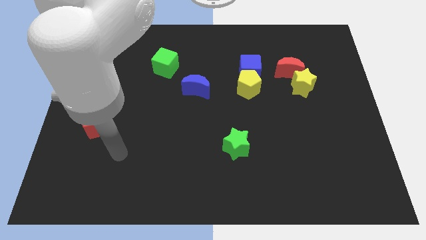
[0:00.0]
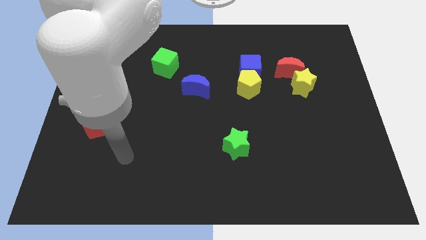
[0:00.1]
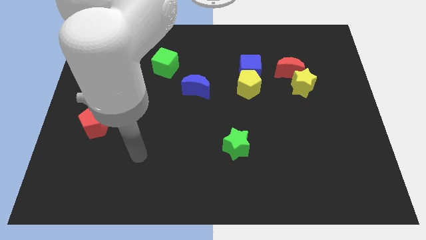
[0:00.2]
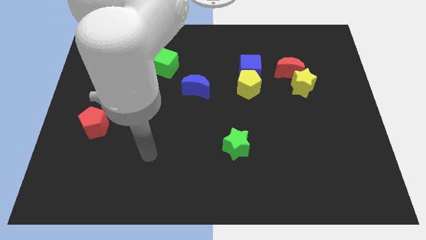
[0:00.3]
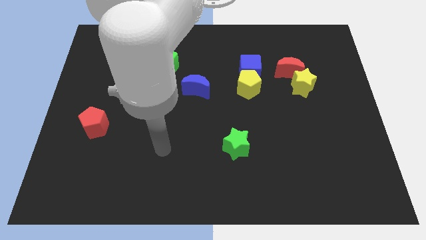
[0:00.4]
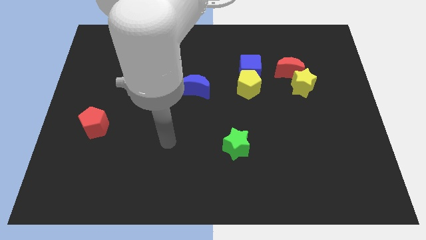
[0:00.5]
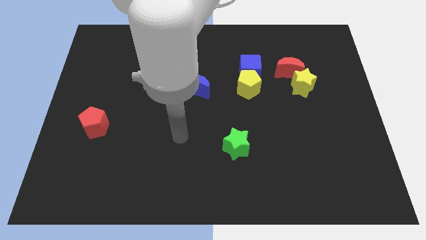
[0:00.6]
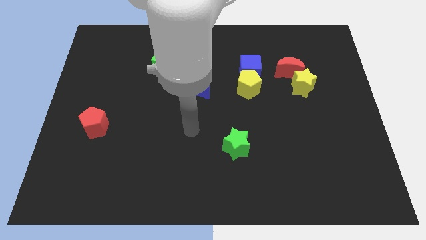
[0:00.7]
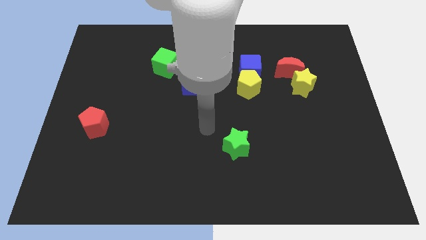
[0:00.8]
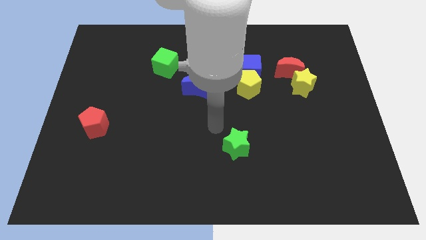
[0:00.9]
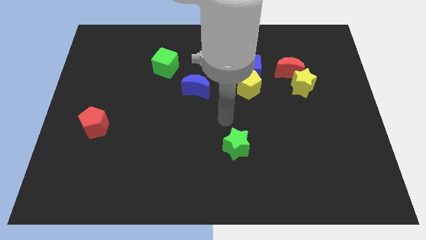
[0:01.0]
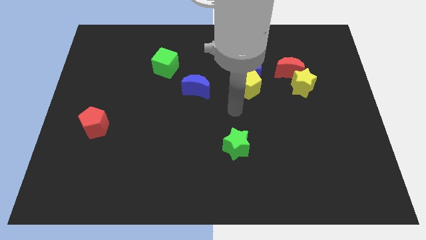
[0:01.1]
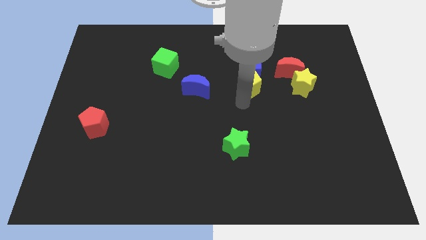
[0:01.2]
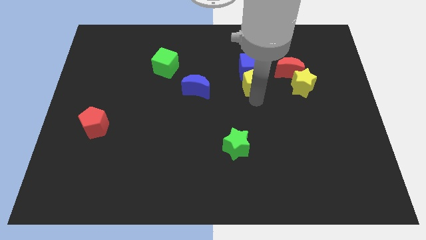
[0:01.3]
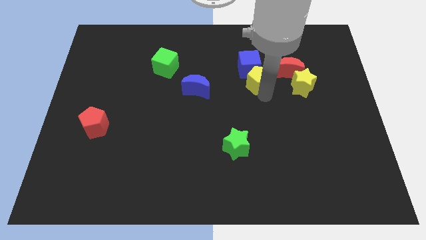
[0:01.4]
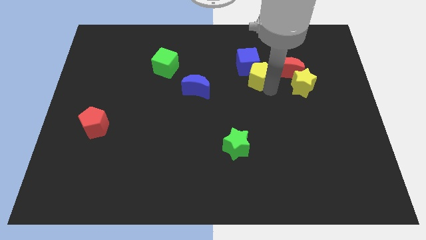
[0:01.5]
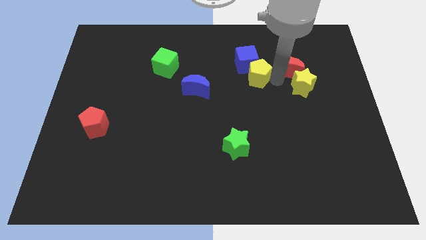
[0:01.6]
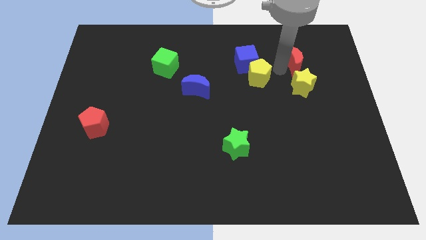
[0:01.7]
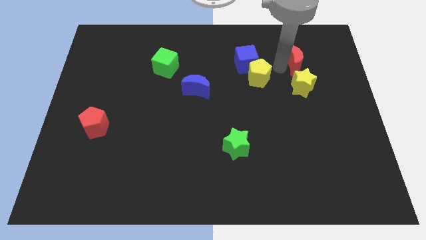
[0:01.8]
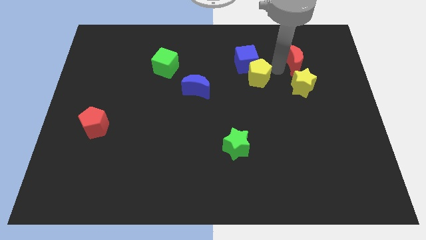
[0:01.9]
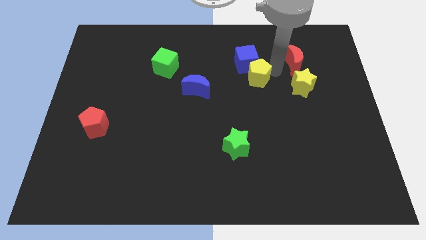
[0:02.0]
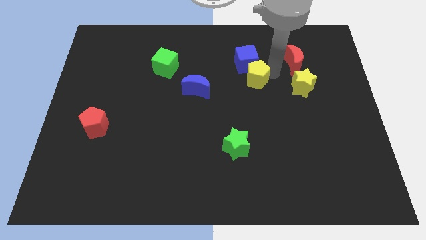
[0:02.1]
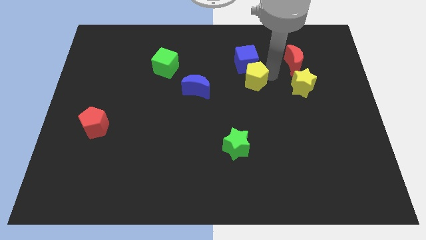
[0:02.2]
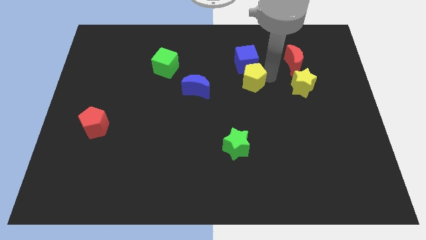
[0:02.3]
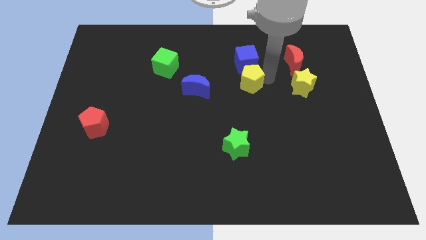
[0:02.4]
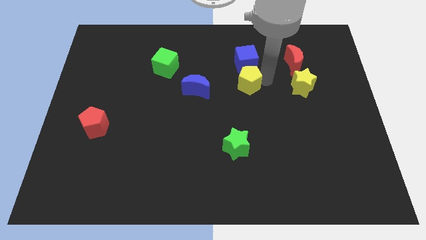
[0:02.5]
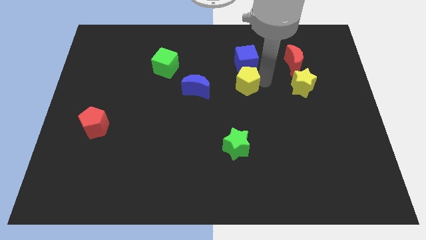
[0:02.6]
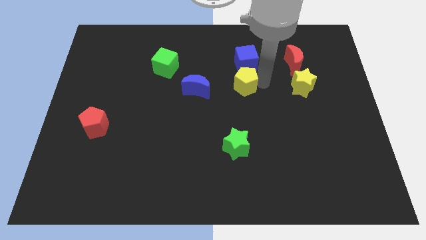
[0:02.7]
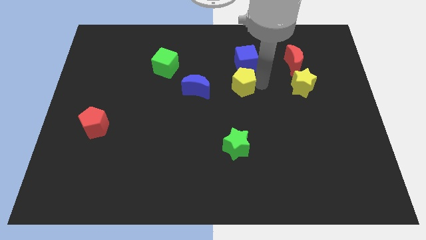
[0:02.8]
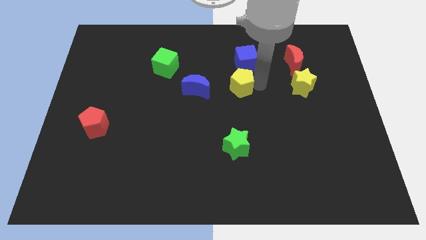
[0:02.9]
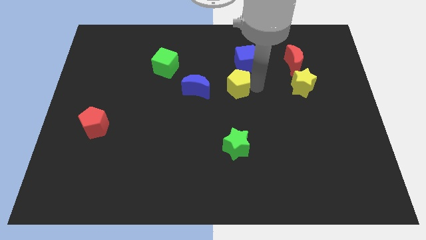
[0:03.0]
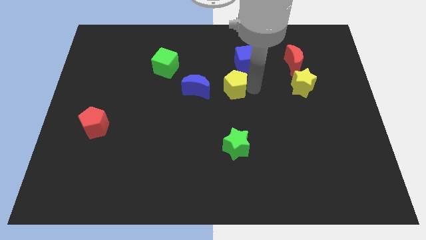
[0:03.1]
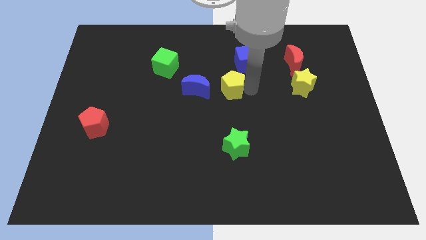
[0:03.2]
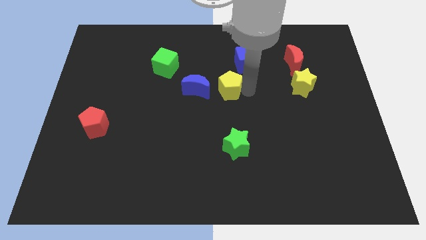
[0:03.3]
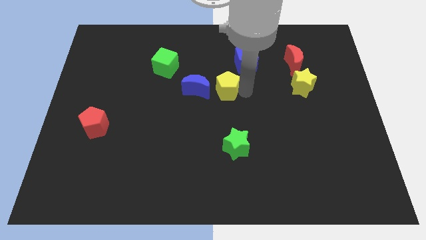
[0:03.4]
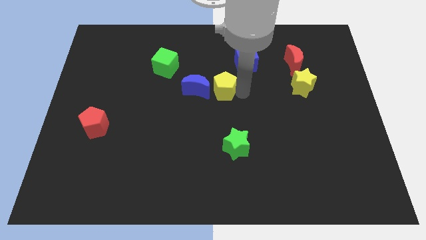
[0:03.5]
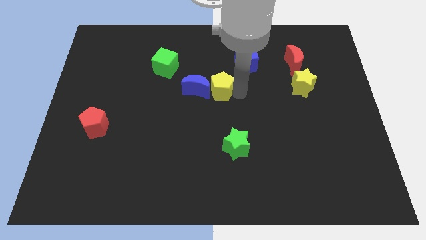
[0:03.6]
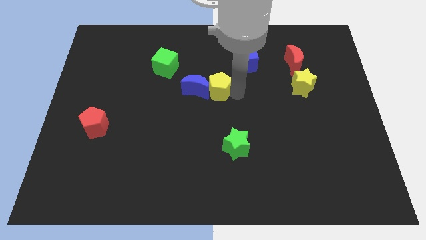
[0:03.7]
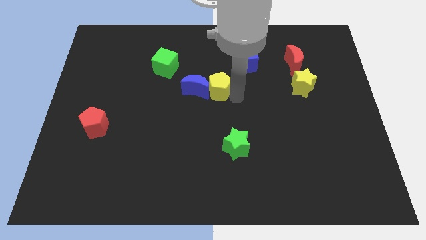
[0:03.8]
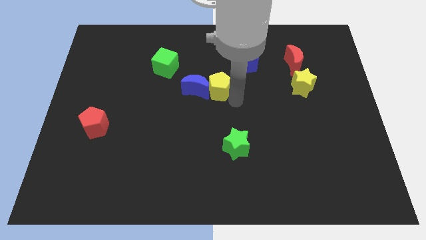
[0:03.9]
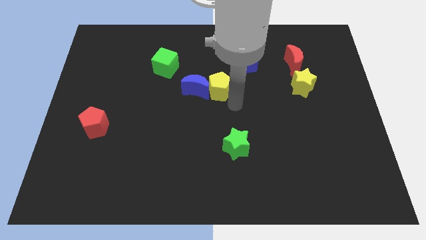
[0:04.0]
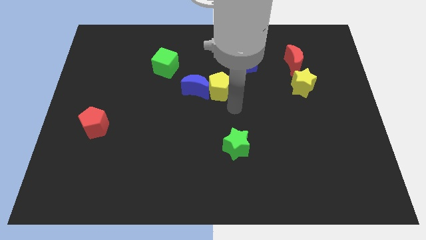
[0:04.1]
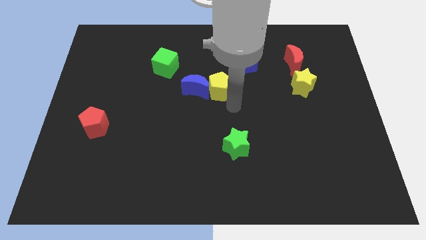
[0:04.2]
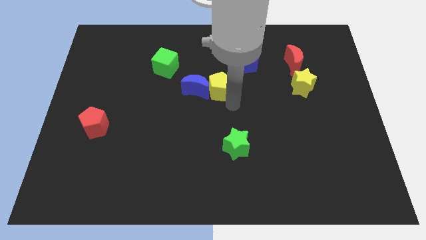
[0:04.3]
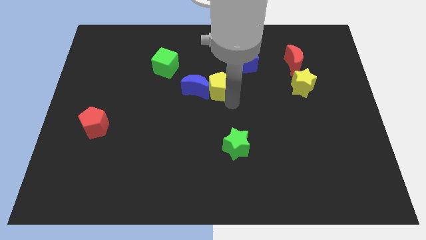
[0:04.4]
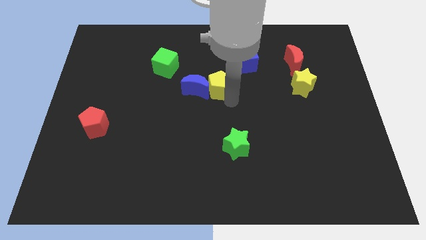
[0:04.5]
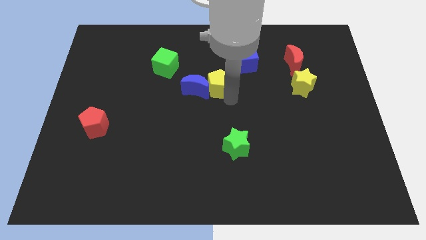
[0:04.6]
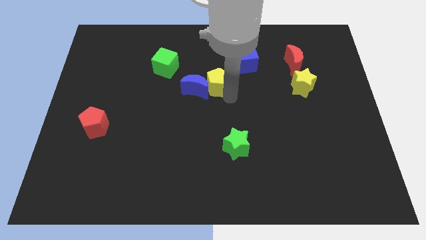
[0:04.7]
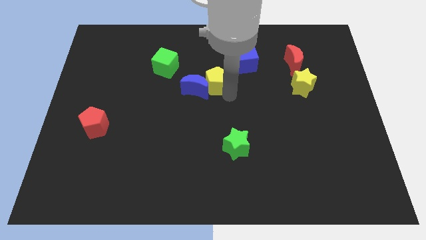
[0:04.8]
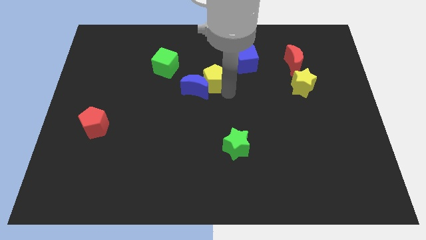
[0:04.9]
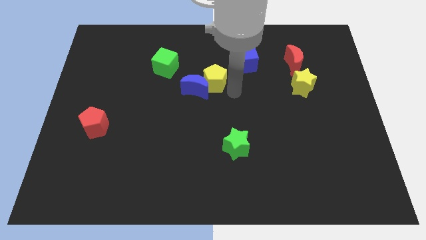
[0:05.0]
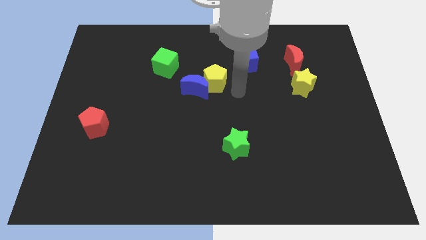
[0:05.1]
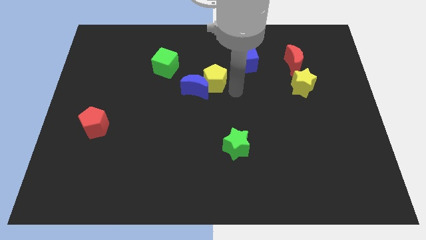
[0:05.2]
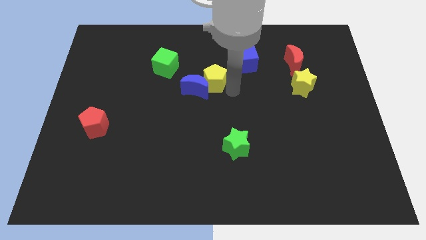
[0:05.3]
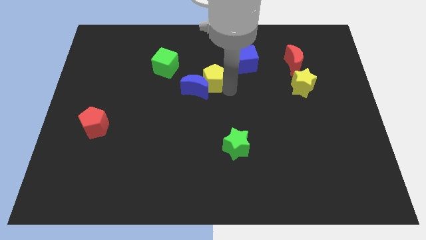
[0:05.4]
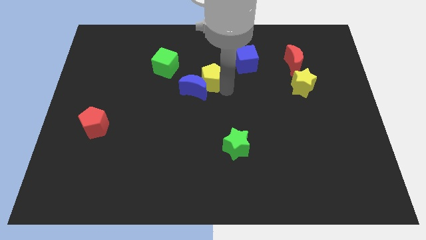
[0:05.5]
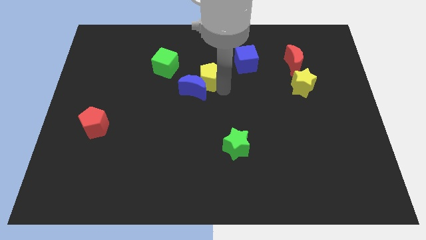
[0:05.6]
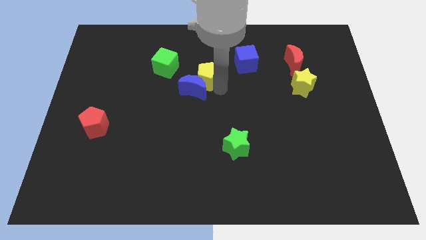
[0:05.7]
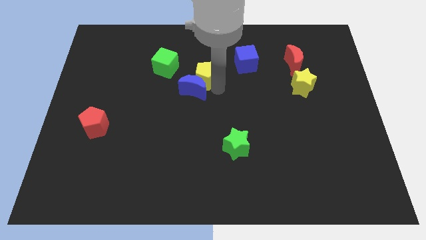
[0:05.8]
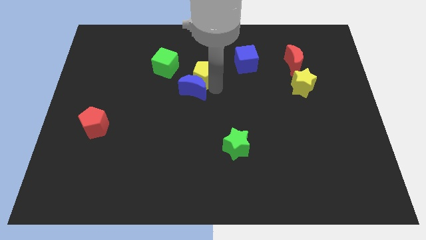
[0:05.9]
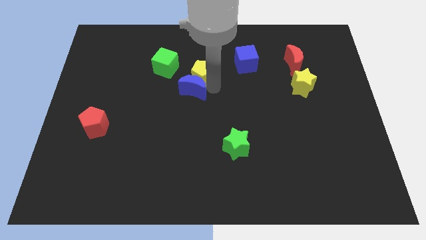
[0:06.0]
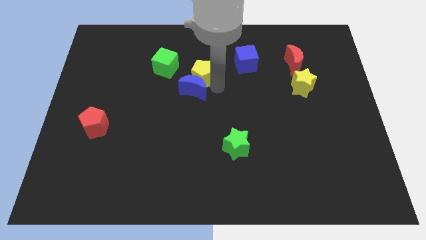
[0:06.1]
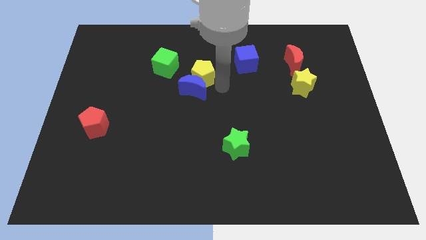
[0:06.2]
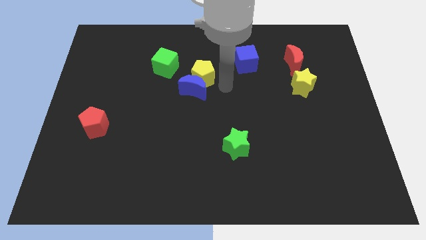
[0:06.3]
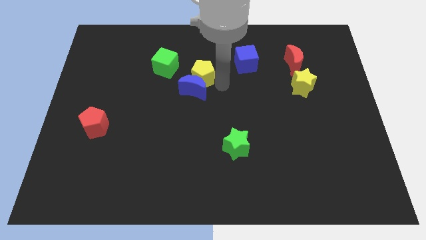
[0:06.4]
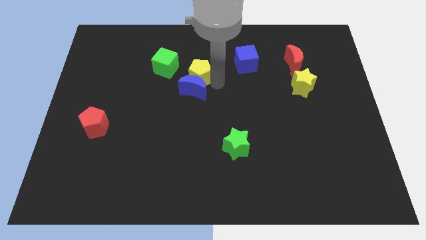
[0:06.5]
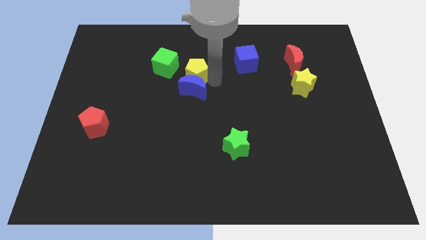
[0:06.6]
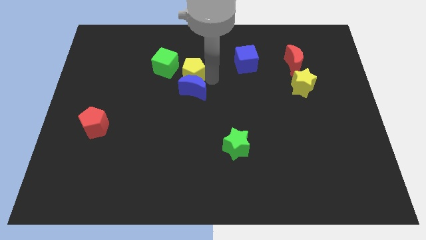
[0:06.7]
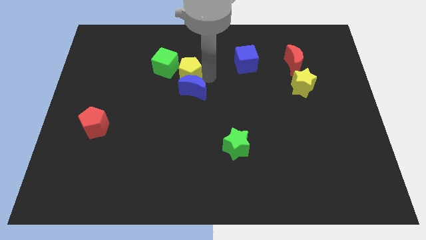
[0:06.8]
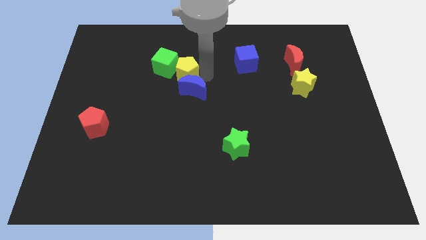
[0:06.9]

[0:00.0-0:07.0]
push the yellow pentagon close to the green cube

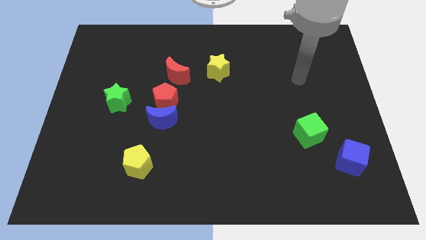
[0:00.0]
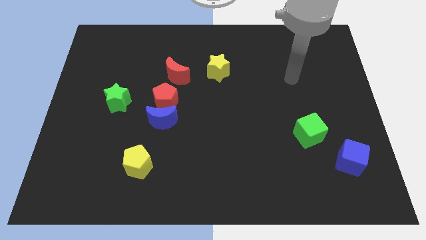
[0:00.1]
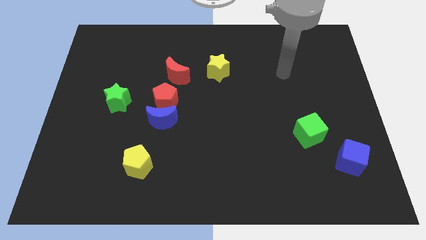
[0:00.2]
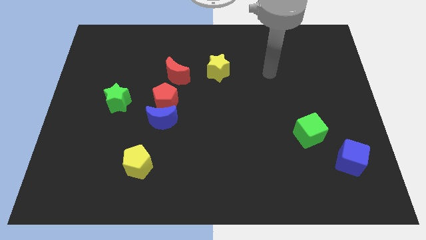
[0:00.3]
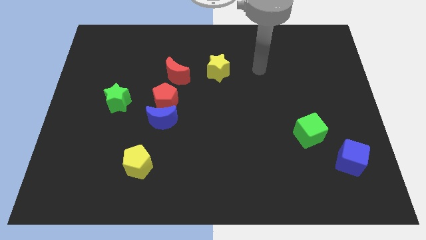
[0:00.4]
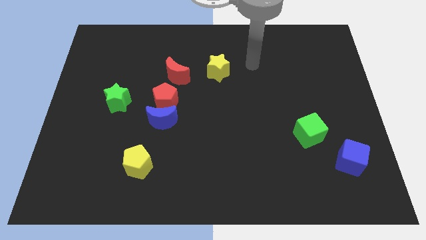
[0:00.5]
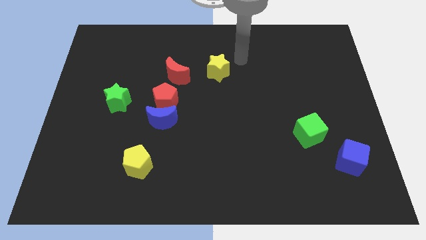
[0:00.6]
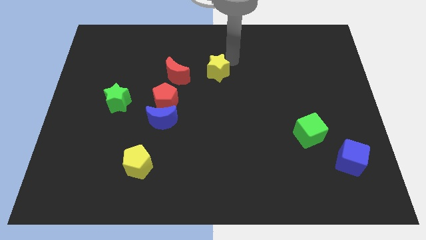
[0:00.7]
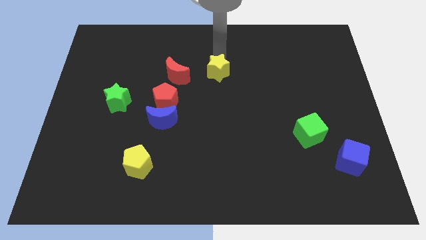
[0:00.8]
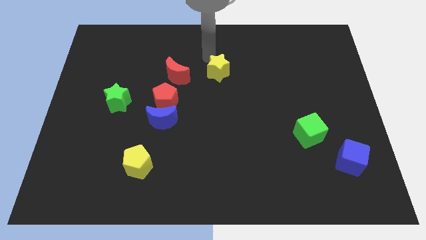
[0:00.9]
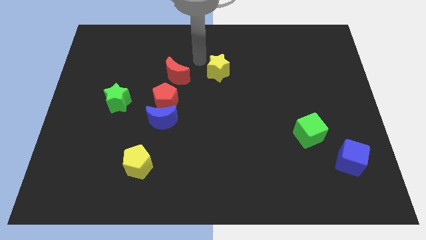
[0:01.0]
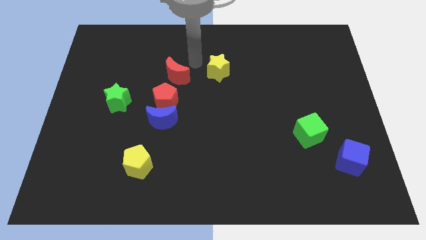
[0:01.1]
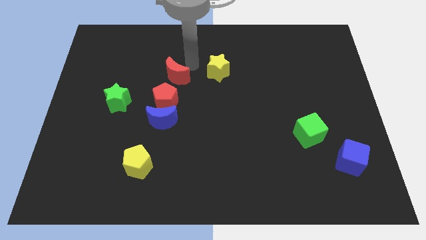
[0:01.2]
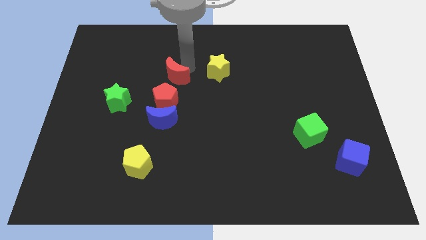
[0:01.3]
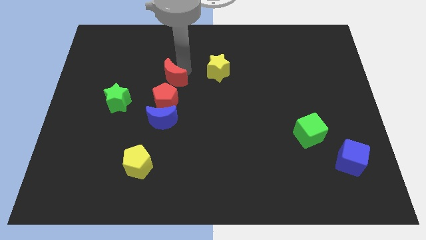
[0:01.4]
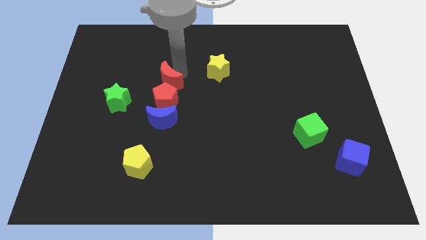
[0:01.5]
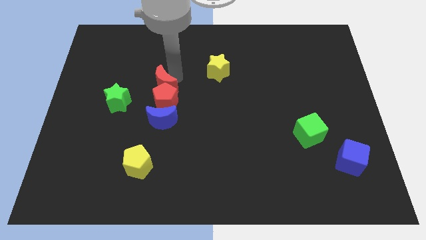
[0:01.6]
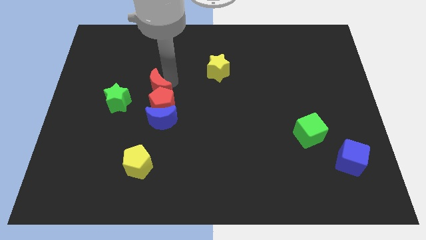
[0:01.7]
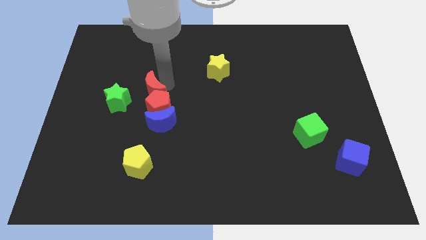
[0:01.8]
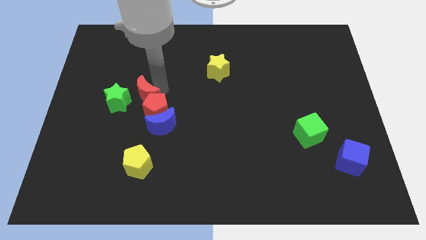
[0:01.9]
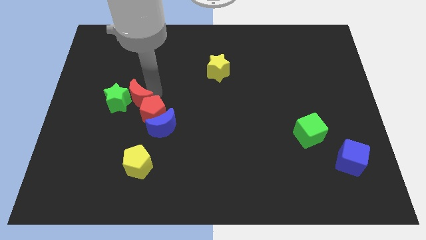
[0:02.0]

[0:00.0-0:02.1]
put the red moon next to the green star
